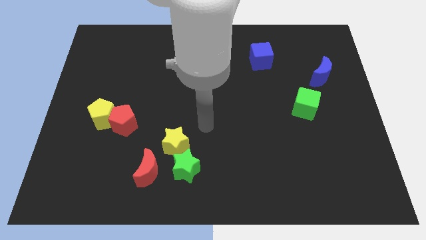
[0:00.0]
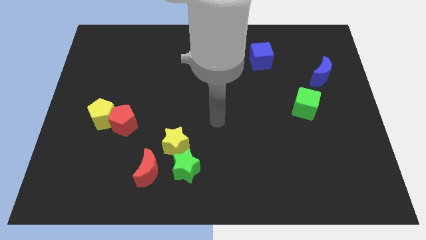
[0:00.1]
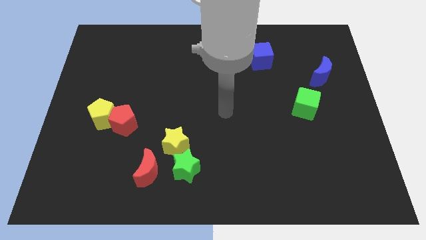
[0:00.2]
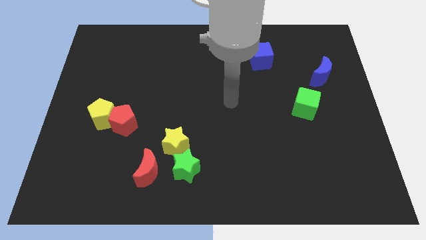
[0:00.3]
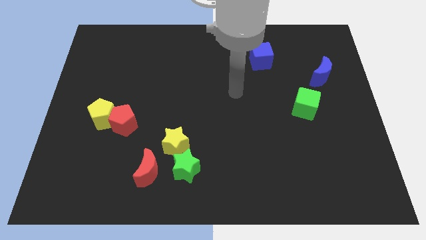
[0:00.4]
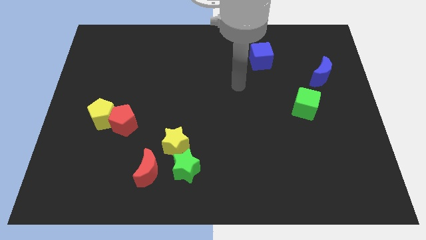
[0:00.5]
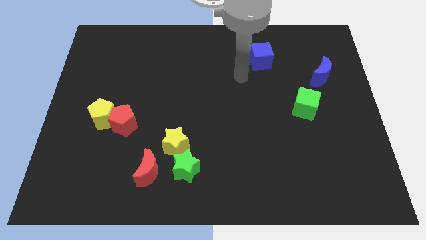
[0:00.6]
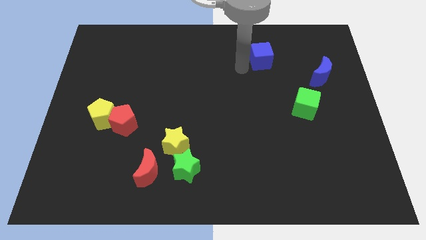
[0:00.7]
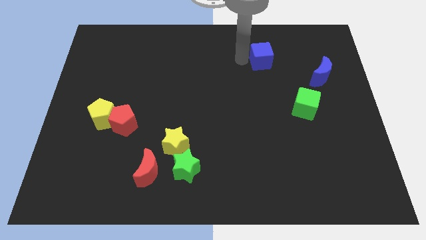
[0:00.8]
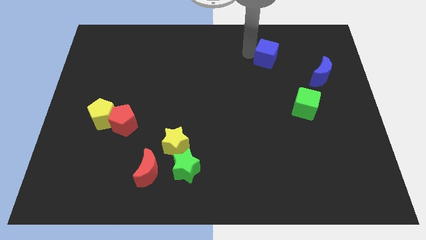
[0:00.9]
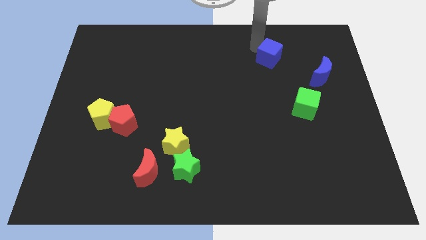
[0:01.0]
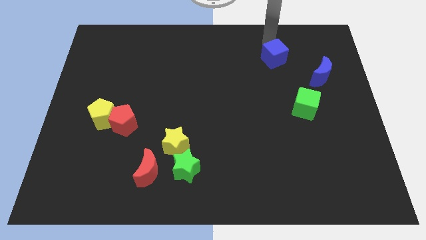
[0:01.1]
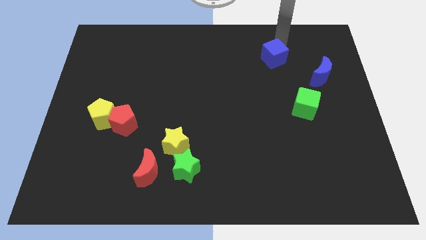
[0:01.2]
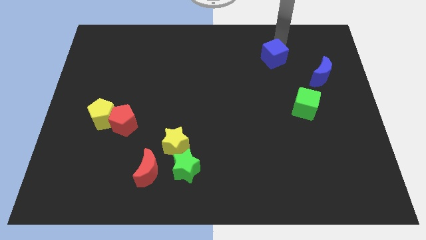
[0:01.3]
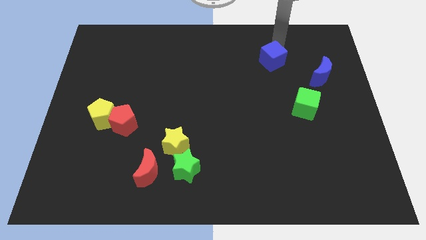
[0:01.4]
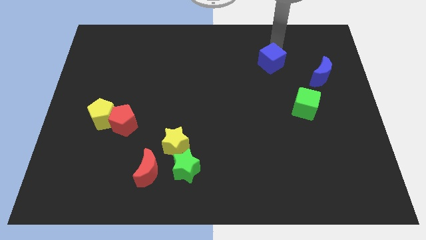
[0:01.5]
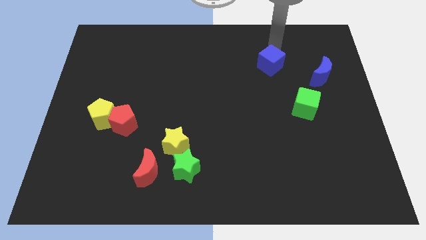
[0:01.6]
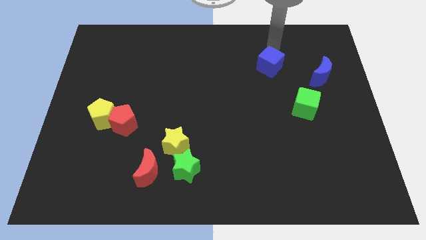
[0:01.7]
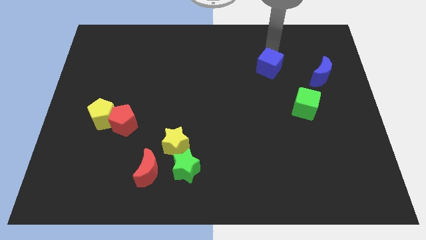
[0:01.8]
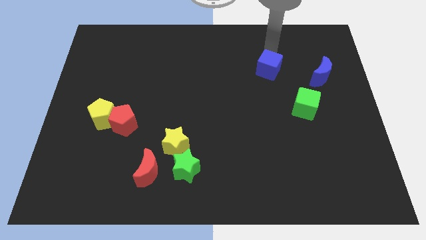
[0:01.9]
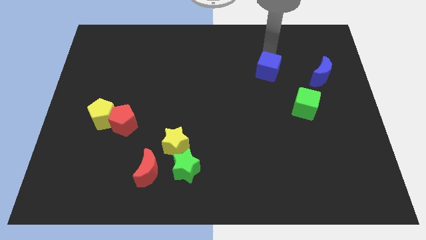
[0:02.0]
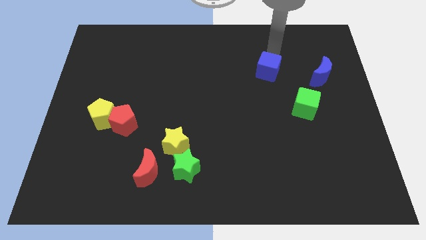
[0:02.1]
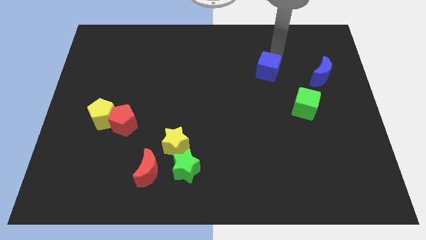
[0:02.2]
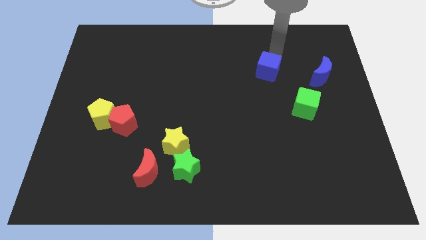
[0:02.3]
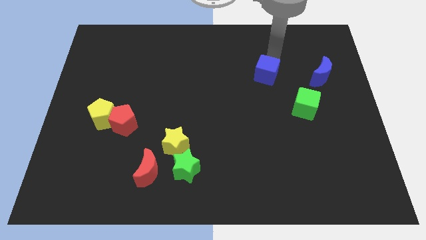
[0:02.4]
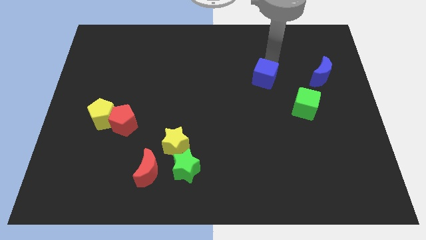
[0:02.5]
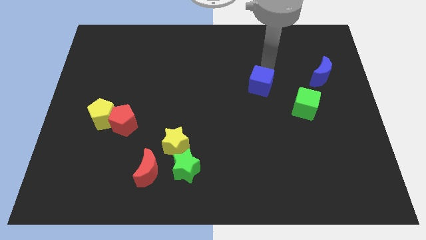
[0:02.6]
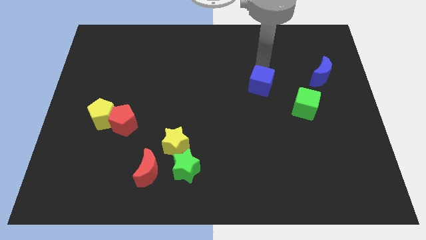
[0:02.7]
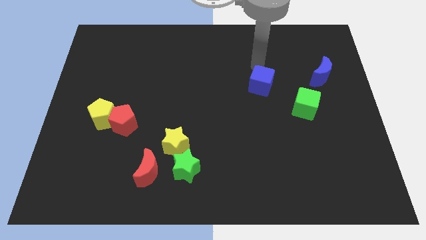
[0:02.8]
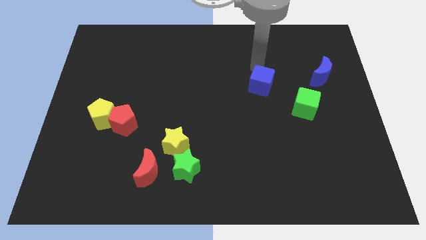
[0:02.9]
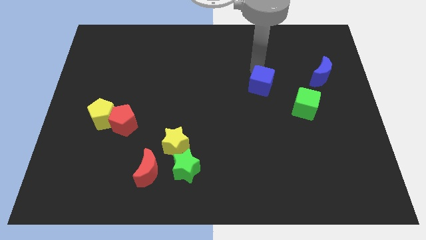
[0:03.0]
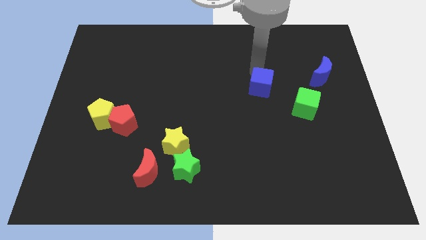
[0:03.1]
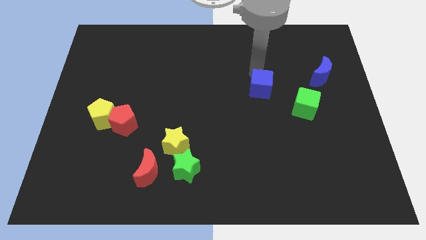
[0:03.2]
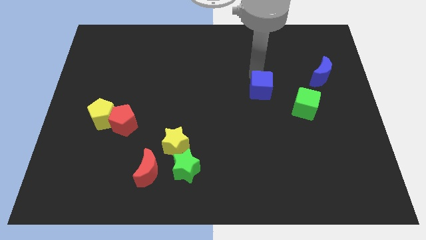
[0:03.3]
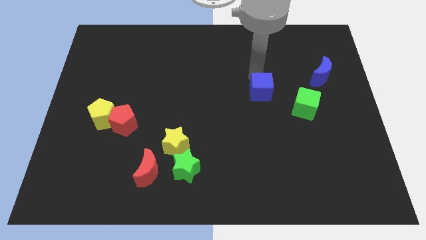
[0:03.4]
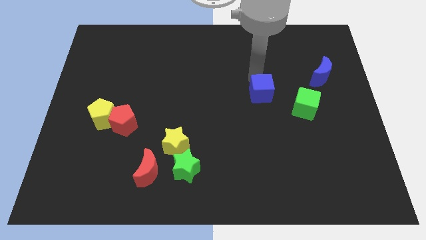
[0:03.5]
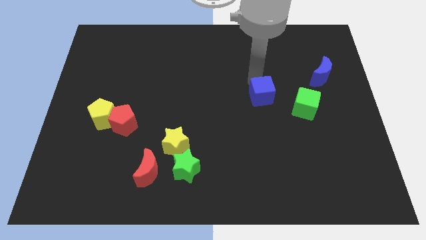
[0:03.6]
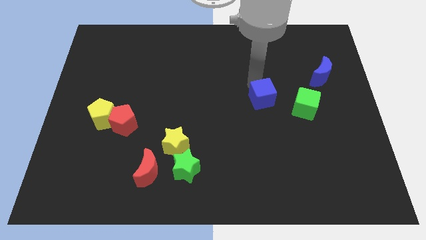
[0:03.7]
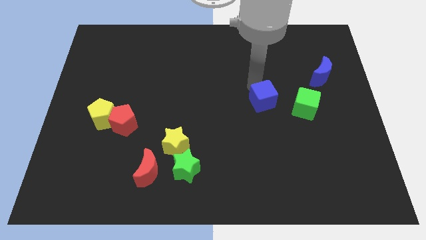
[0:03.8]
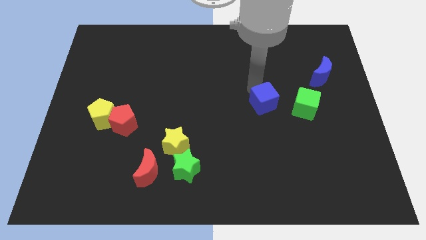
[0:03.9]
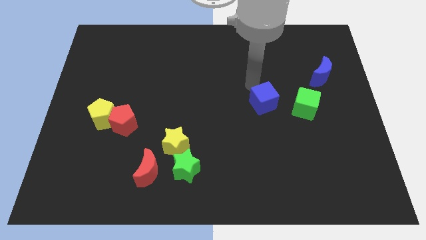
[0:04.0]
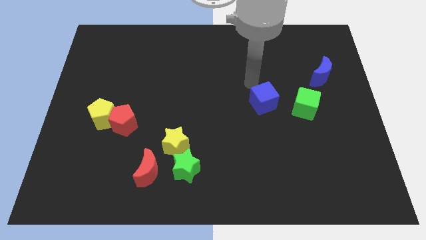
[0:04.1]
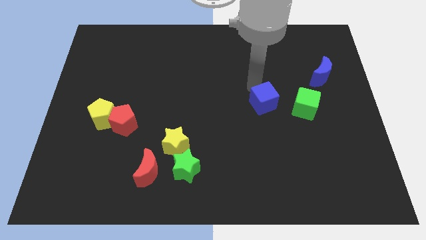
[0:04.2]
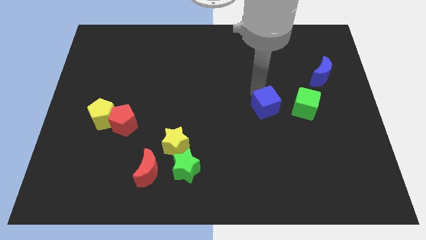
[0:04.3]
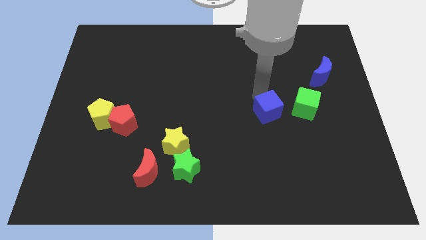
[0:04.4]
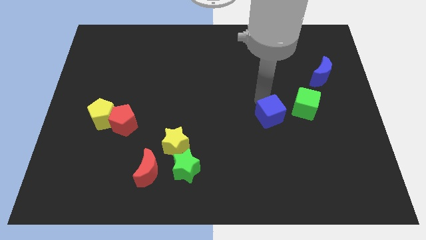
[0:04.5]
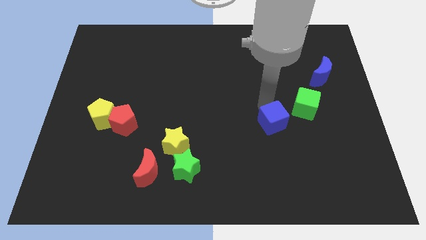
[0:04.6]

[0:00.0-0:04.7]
slide the blue cube down

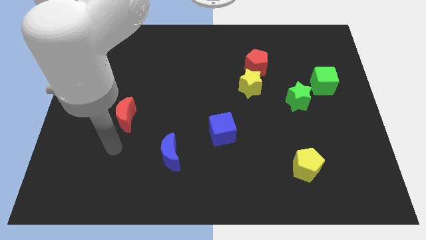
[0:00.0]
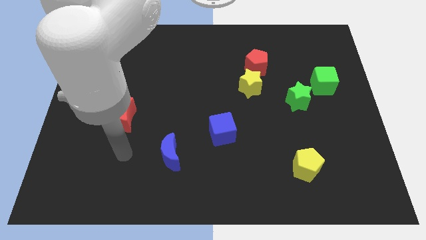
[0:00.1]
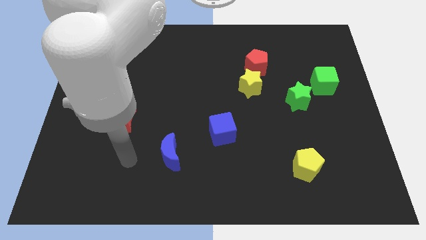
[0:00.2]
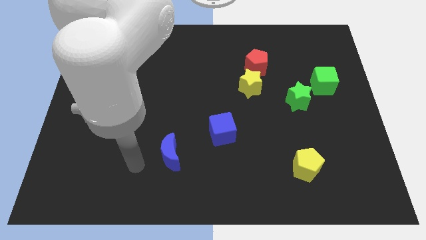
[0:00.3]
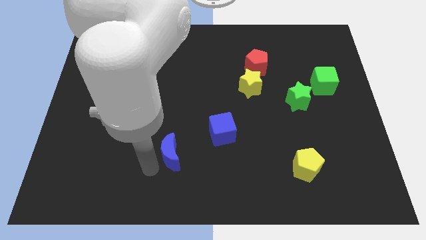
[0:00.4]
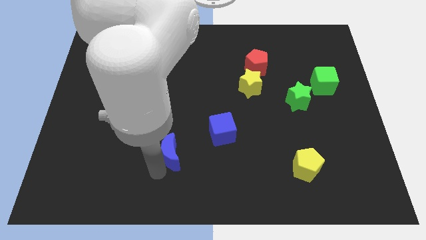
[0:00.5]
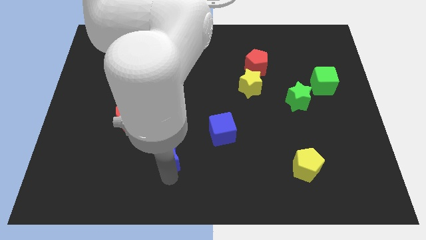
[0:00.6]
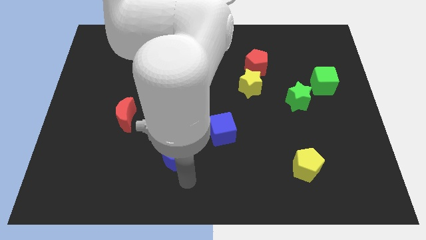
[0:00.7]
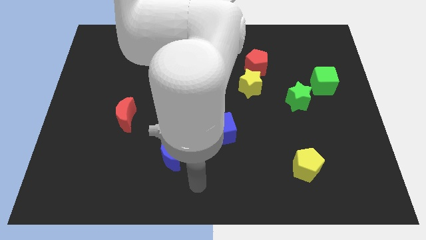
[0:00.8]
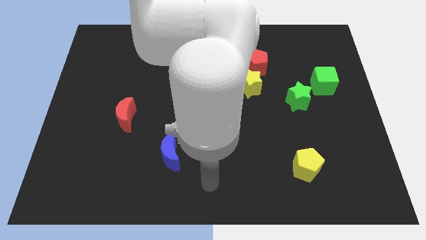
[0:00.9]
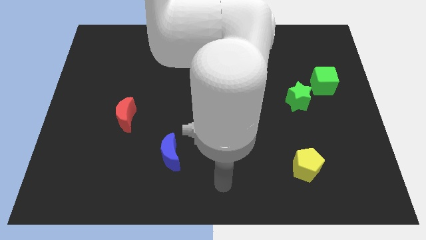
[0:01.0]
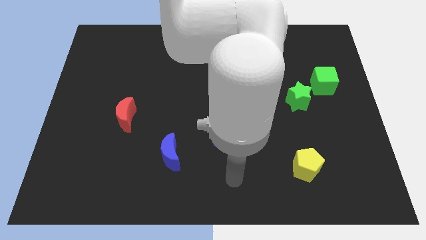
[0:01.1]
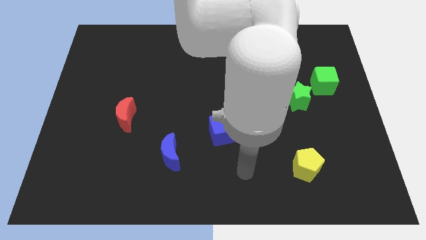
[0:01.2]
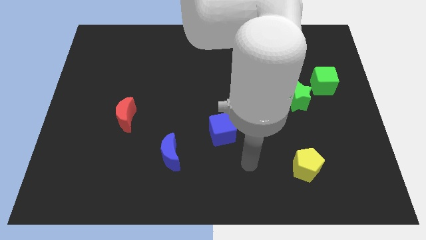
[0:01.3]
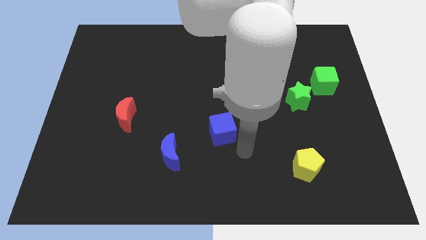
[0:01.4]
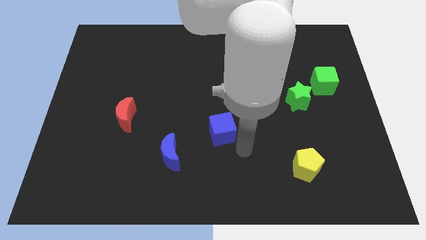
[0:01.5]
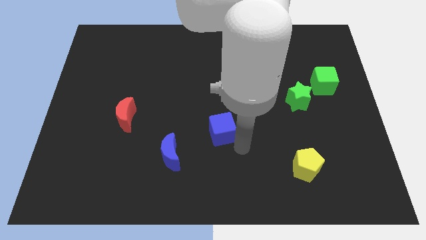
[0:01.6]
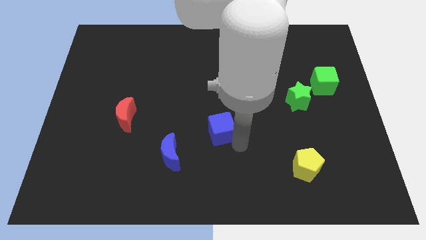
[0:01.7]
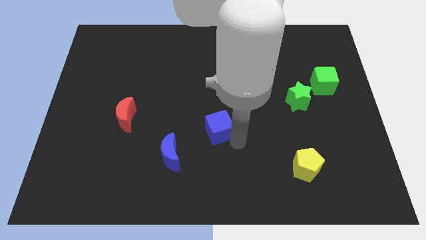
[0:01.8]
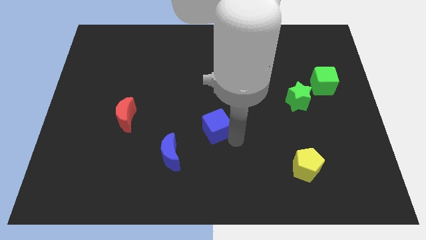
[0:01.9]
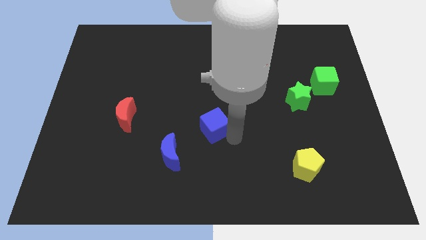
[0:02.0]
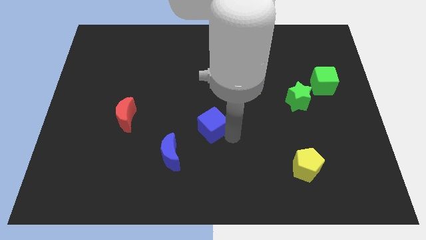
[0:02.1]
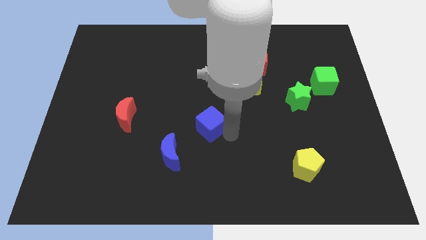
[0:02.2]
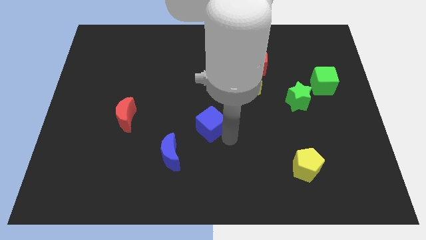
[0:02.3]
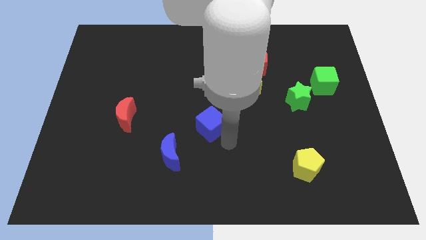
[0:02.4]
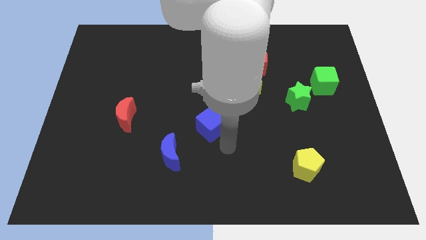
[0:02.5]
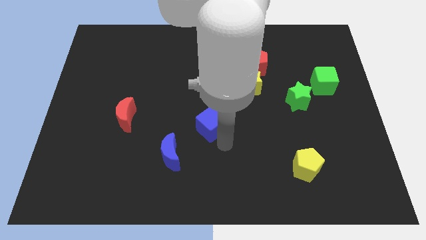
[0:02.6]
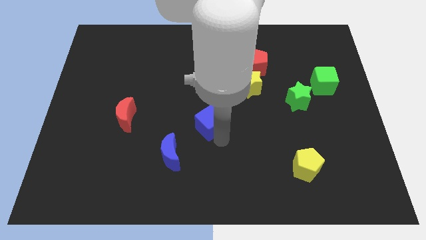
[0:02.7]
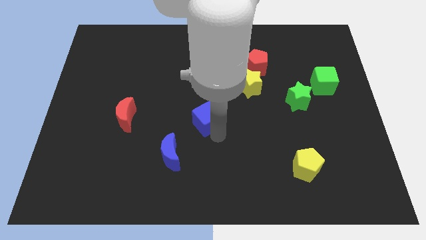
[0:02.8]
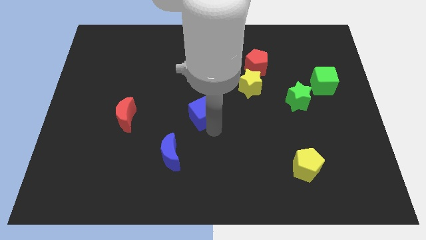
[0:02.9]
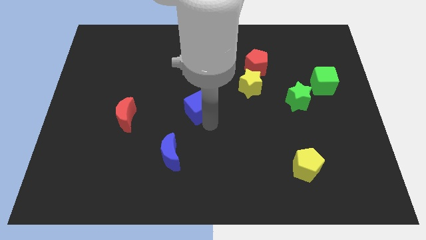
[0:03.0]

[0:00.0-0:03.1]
push the blue cube a little bit diagonally up and to the left

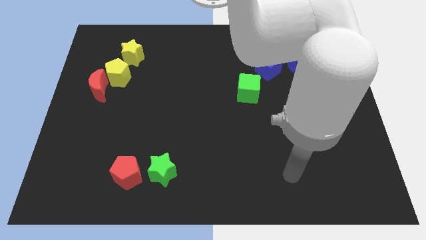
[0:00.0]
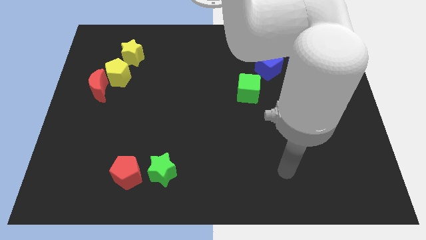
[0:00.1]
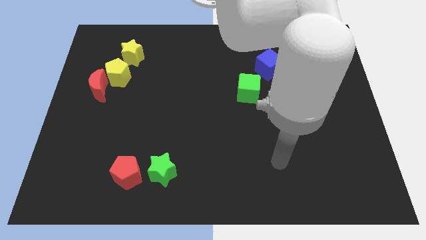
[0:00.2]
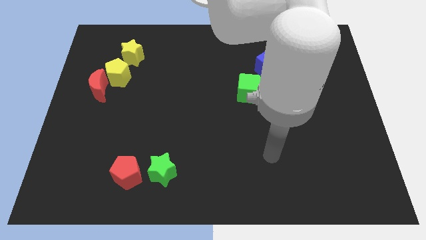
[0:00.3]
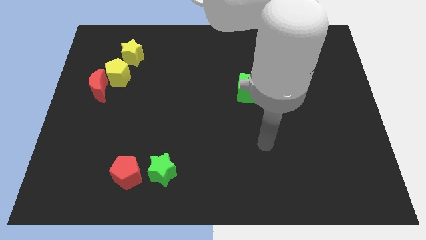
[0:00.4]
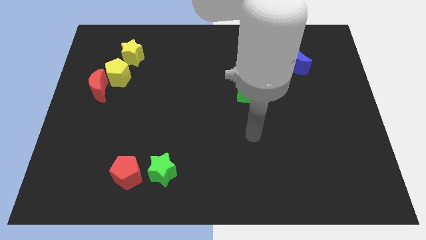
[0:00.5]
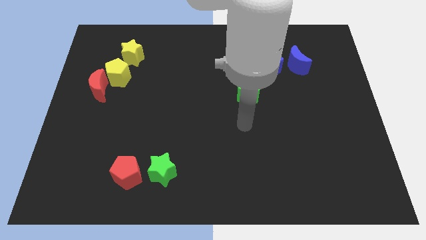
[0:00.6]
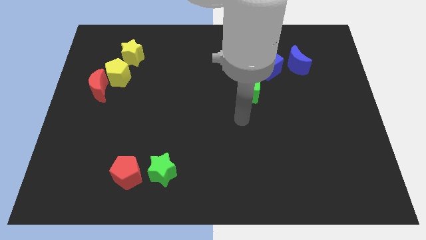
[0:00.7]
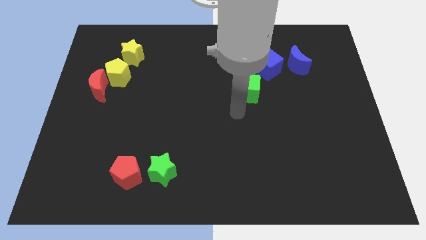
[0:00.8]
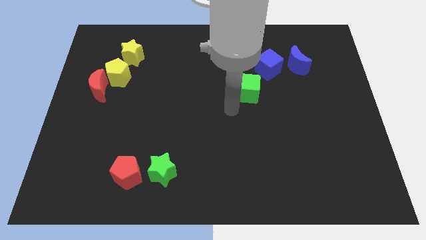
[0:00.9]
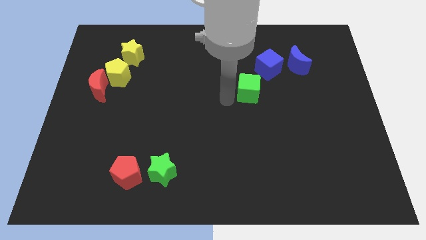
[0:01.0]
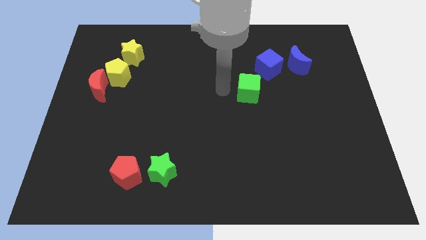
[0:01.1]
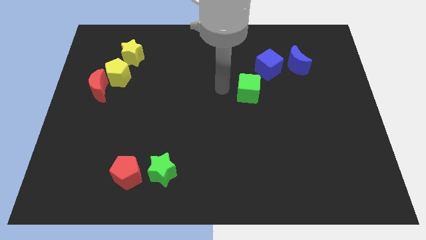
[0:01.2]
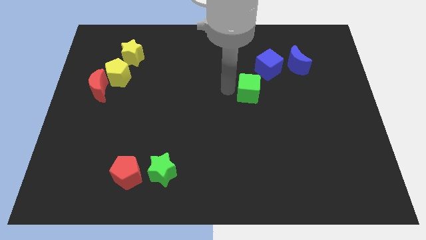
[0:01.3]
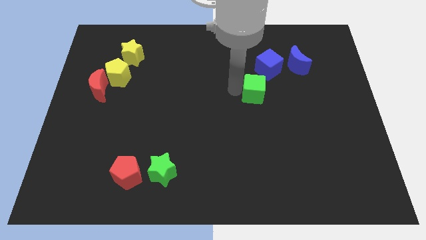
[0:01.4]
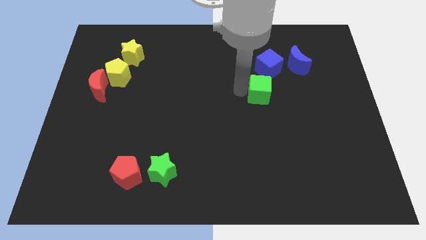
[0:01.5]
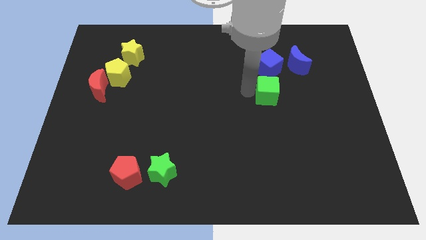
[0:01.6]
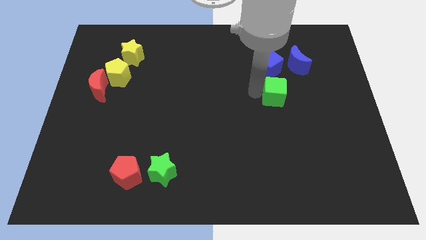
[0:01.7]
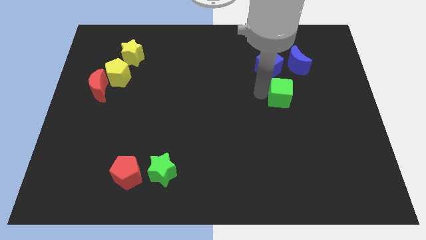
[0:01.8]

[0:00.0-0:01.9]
slide the green cube a little bit right
